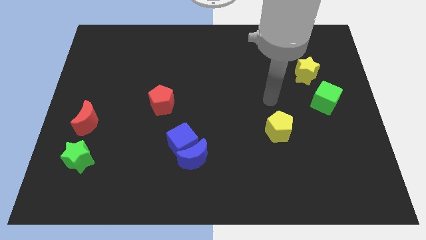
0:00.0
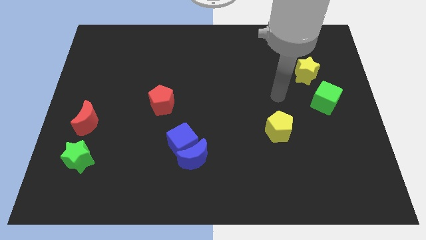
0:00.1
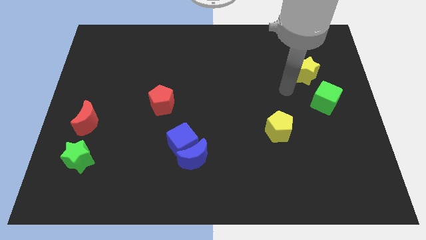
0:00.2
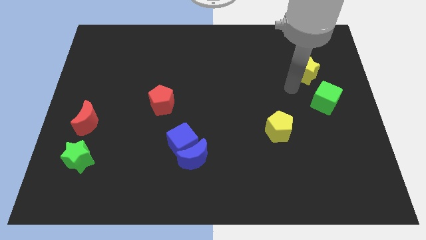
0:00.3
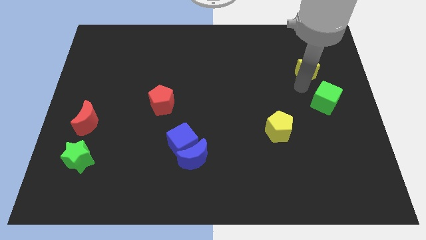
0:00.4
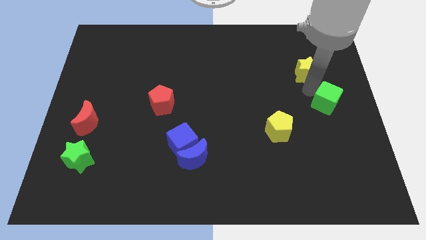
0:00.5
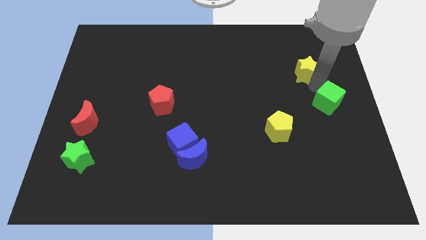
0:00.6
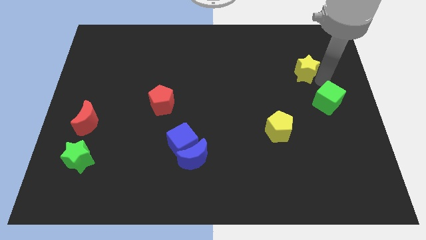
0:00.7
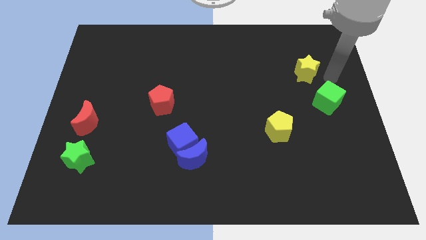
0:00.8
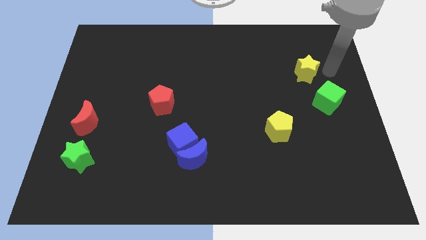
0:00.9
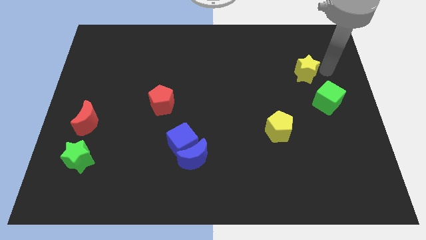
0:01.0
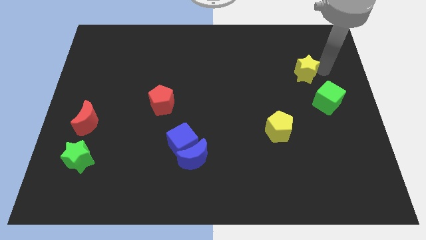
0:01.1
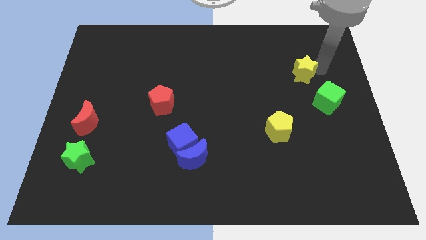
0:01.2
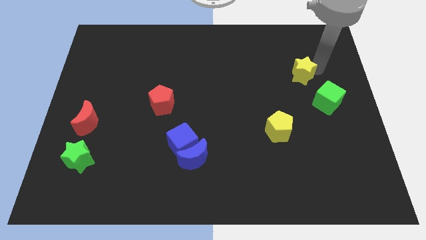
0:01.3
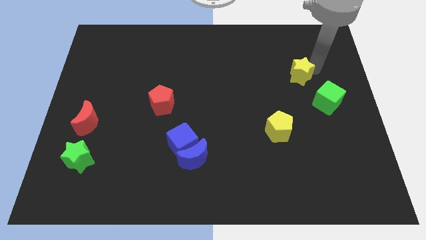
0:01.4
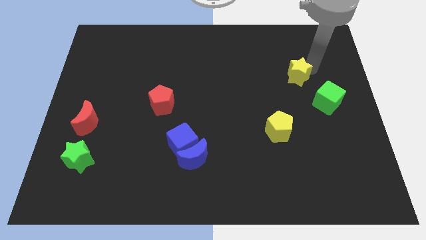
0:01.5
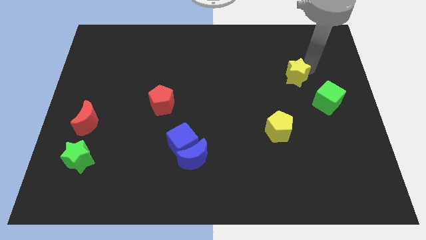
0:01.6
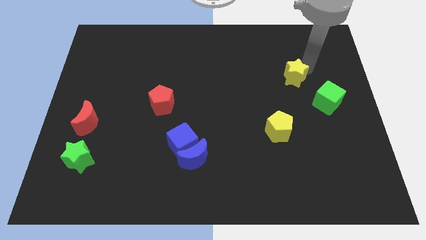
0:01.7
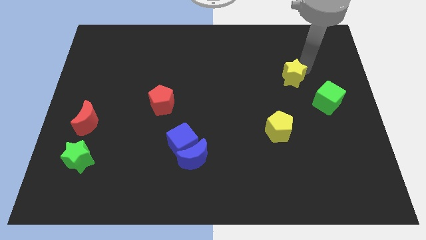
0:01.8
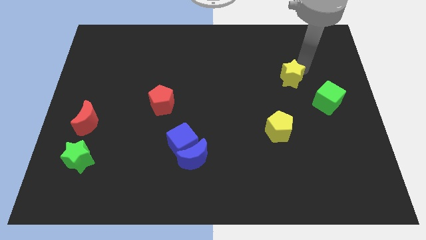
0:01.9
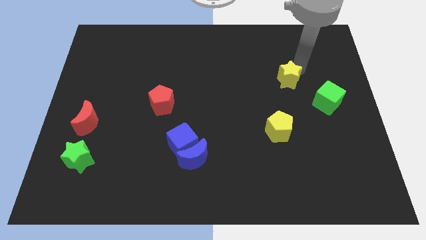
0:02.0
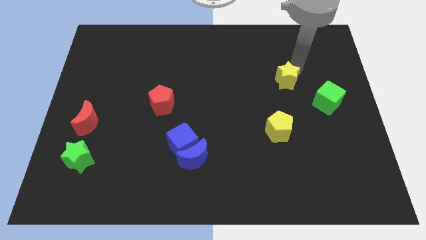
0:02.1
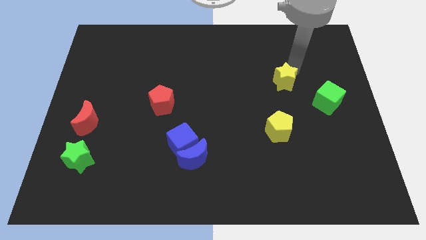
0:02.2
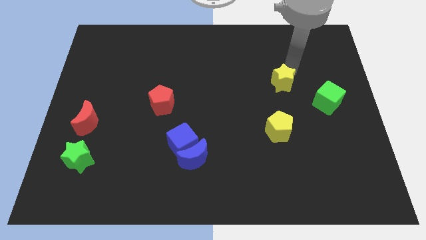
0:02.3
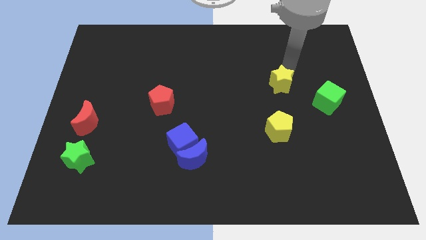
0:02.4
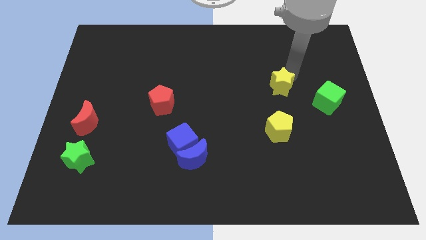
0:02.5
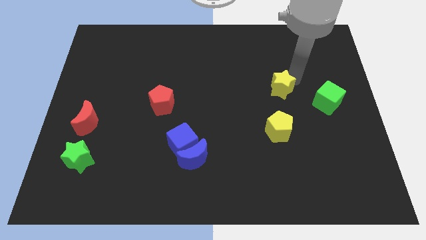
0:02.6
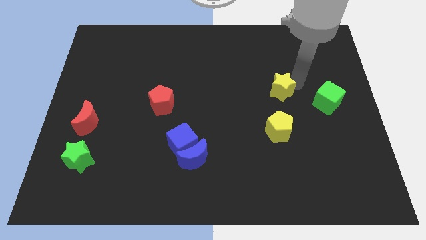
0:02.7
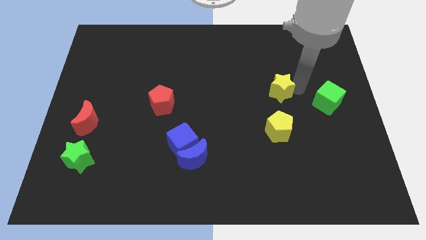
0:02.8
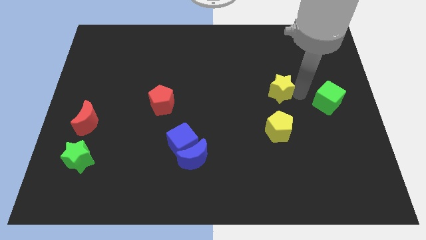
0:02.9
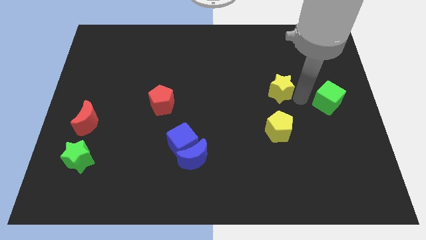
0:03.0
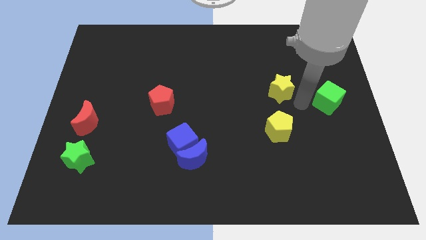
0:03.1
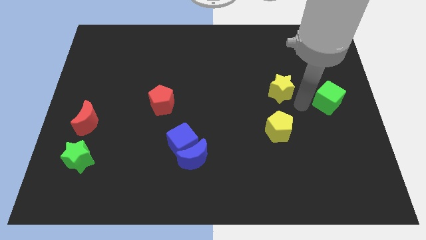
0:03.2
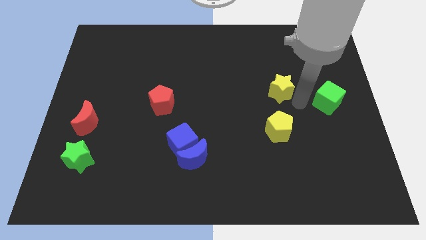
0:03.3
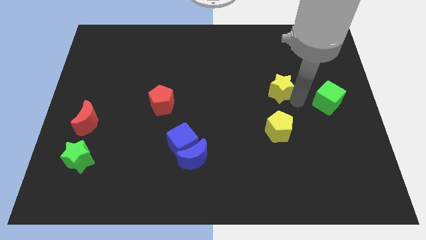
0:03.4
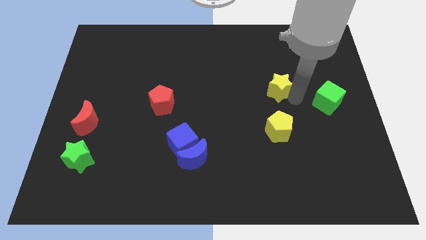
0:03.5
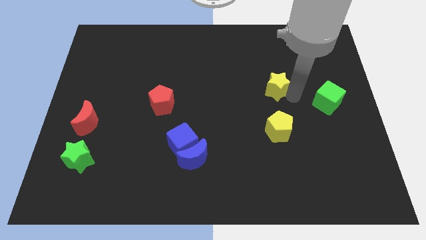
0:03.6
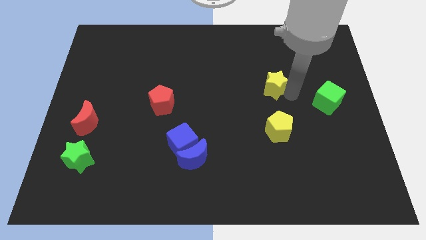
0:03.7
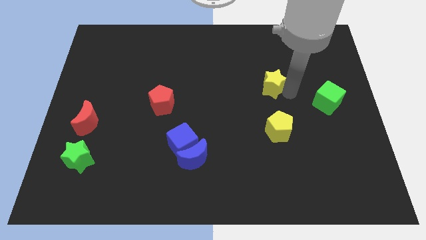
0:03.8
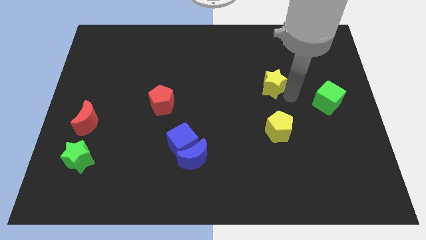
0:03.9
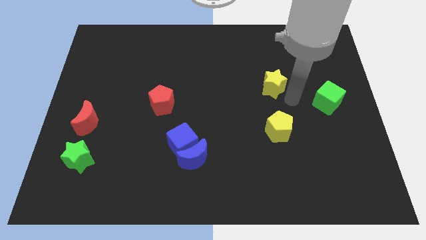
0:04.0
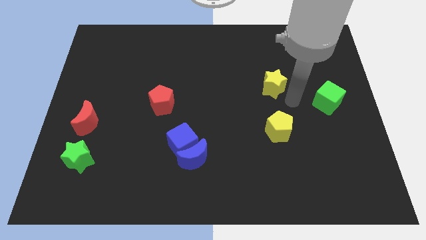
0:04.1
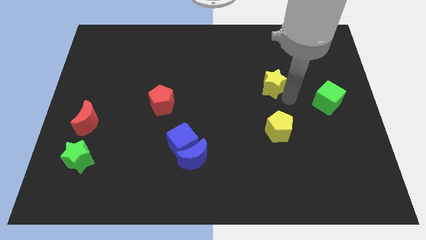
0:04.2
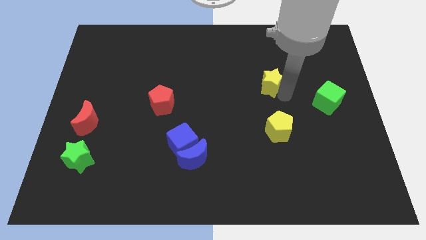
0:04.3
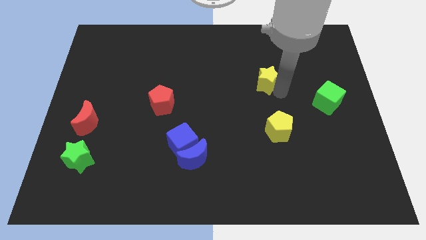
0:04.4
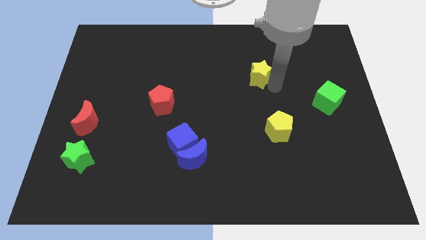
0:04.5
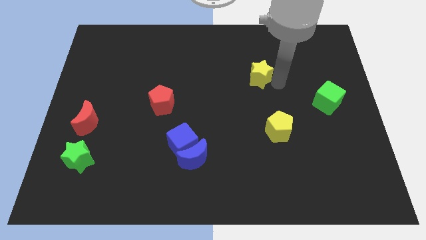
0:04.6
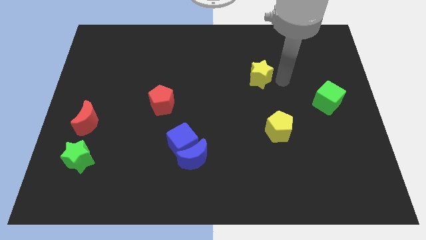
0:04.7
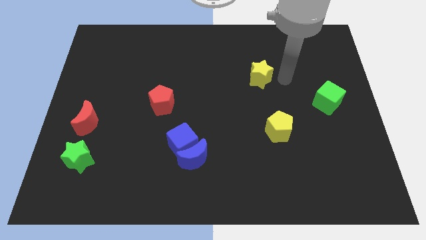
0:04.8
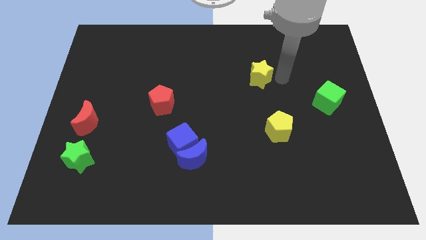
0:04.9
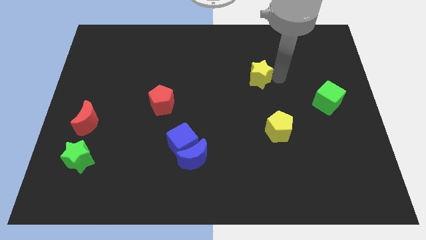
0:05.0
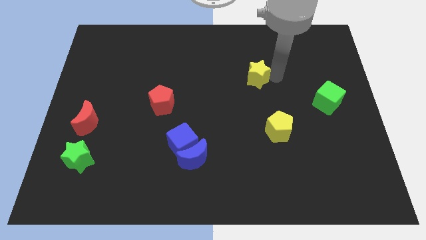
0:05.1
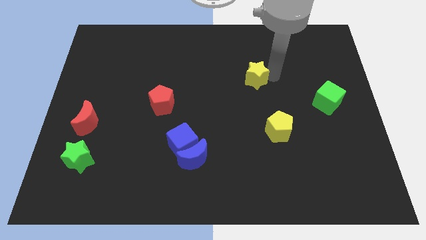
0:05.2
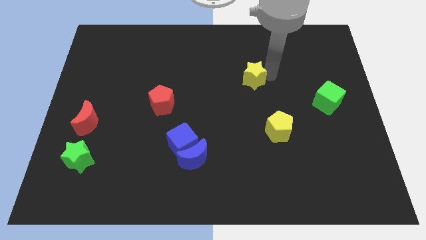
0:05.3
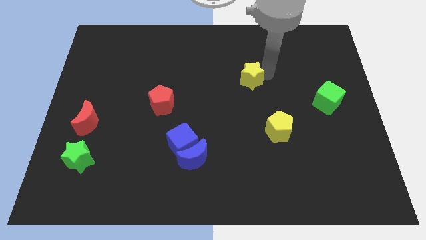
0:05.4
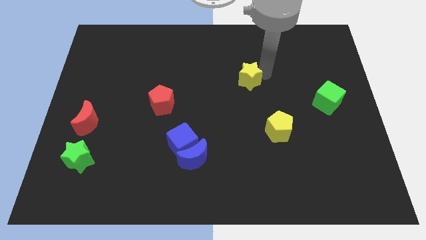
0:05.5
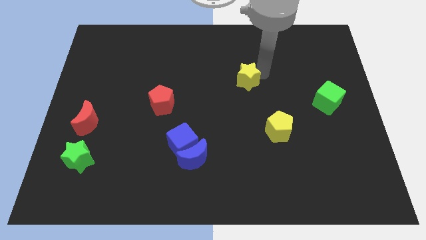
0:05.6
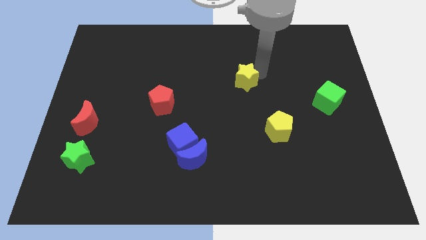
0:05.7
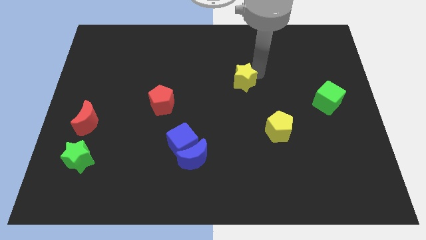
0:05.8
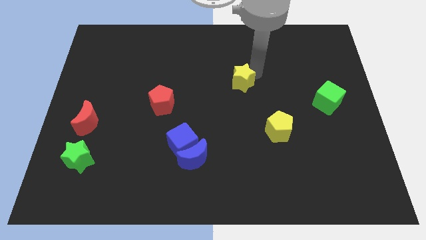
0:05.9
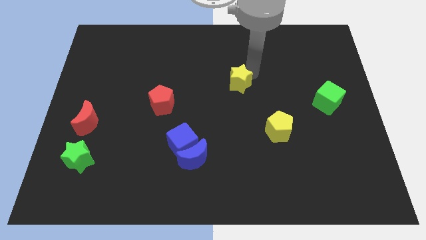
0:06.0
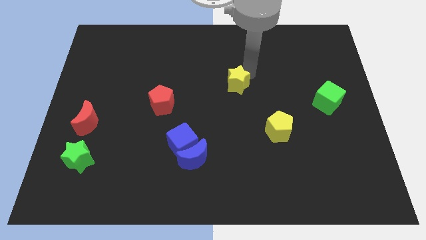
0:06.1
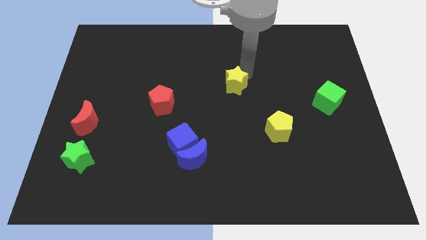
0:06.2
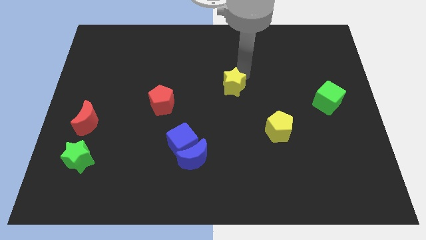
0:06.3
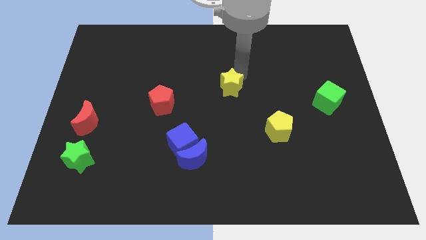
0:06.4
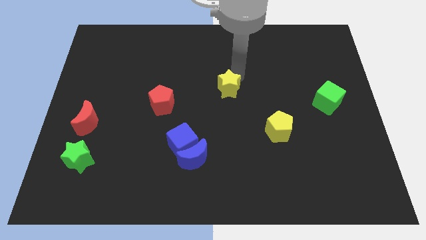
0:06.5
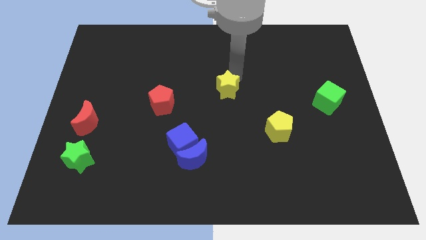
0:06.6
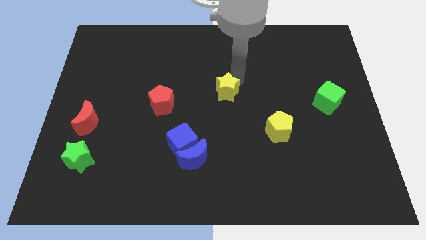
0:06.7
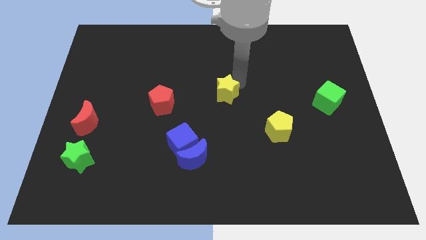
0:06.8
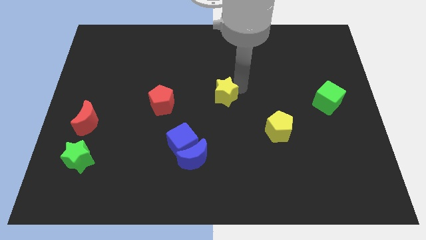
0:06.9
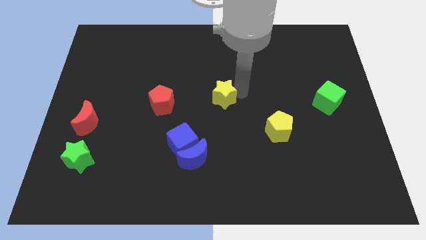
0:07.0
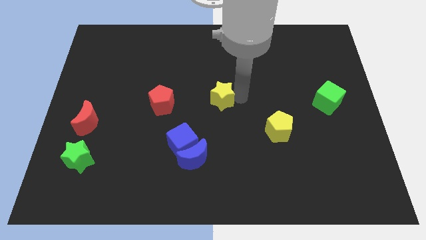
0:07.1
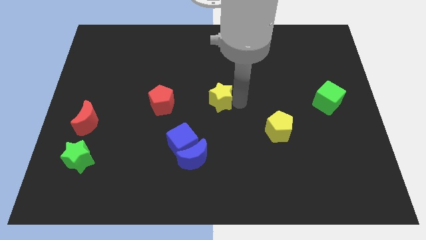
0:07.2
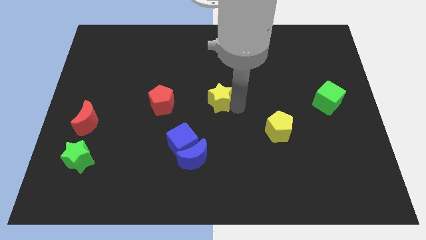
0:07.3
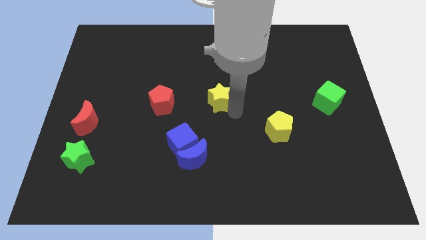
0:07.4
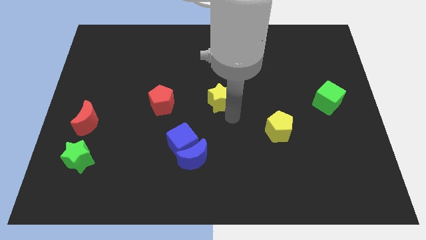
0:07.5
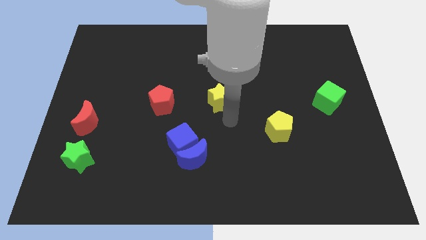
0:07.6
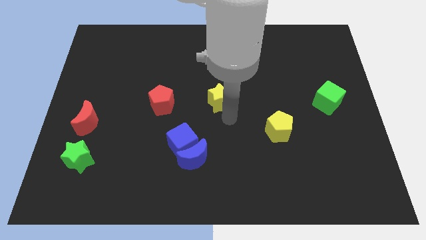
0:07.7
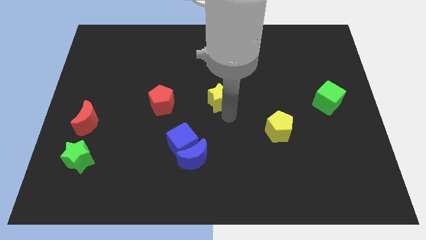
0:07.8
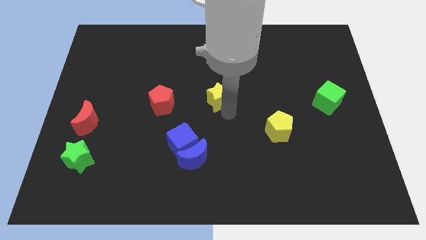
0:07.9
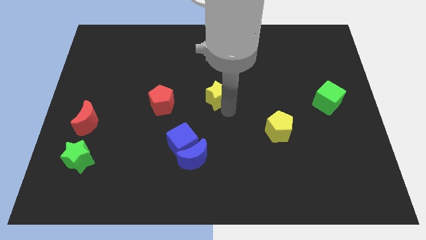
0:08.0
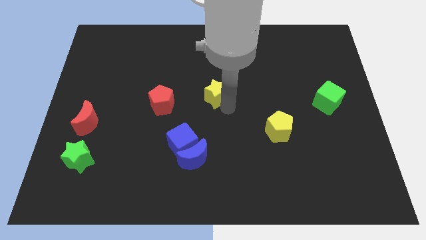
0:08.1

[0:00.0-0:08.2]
push the yellow star left
